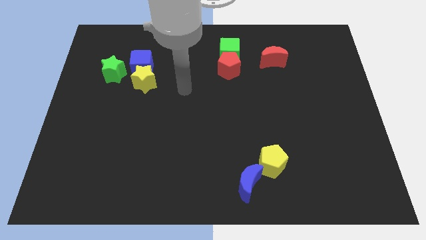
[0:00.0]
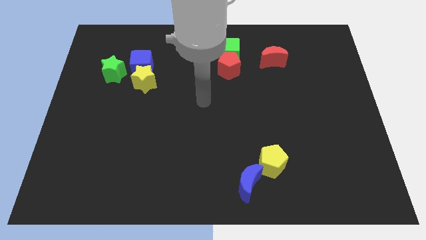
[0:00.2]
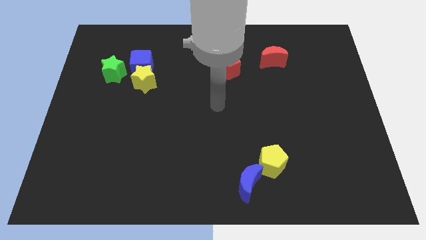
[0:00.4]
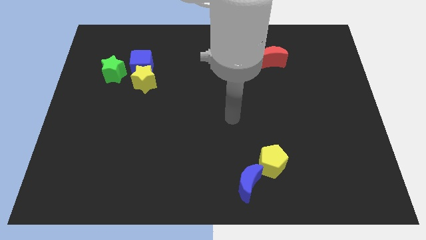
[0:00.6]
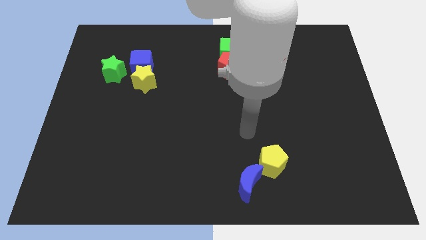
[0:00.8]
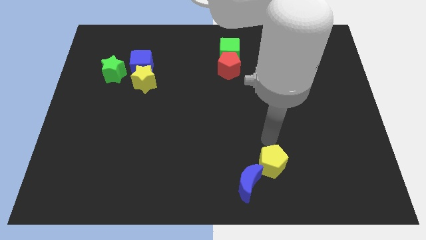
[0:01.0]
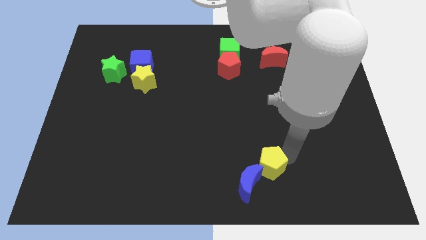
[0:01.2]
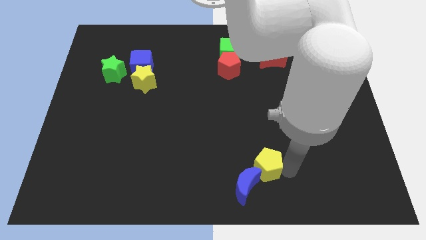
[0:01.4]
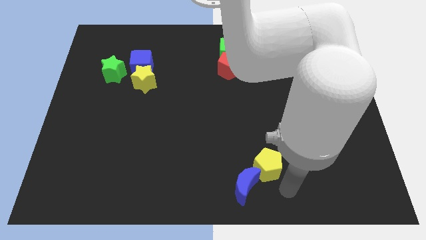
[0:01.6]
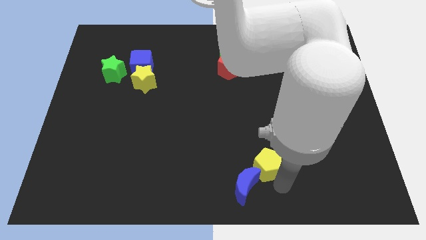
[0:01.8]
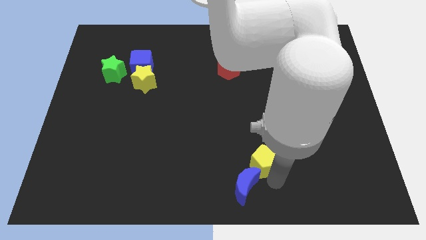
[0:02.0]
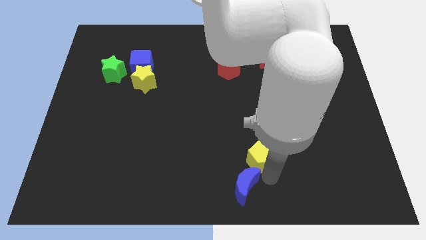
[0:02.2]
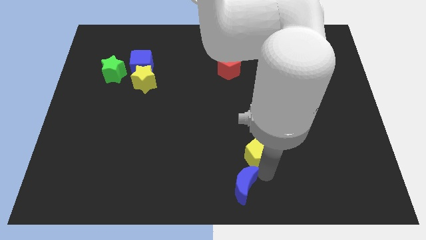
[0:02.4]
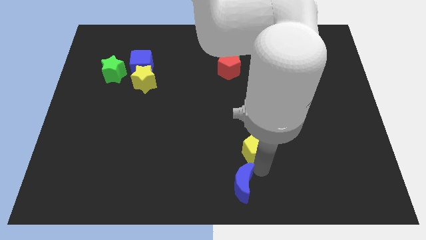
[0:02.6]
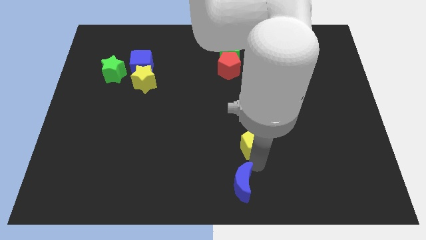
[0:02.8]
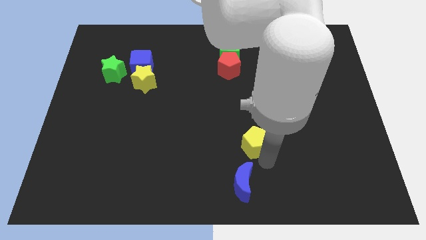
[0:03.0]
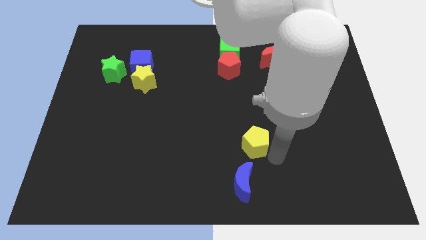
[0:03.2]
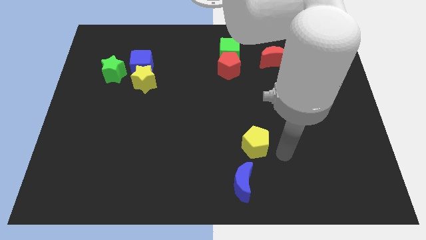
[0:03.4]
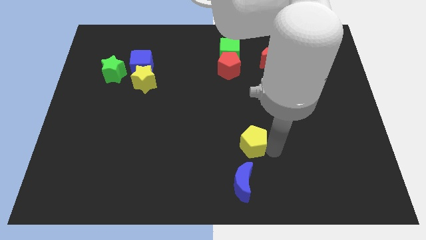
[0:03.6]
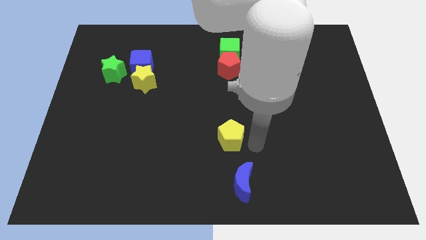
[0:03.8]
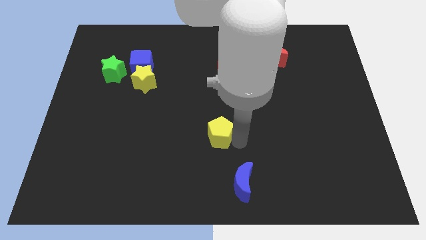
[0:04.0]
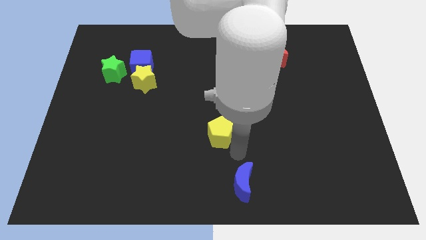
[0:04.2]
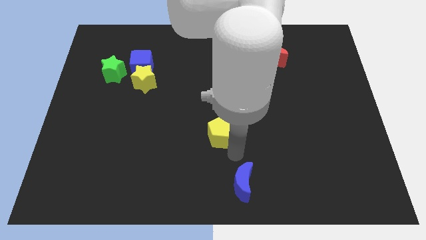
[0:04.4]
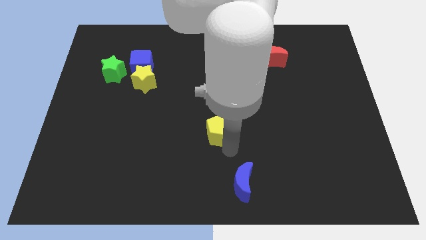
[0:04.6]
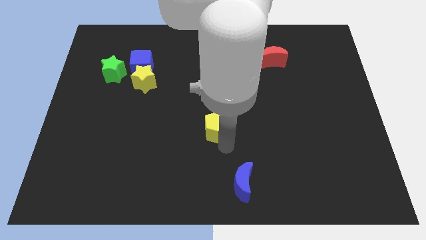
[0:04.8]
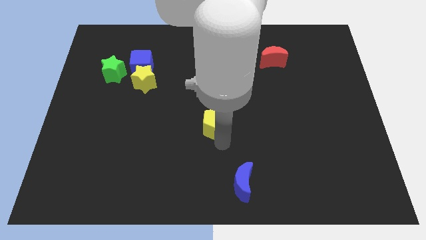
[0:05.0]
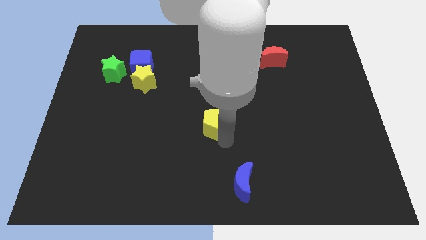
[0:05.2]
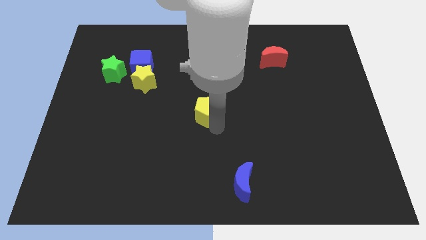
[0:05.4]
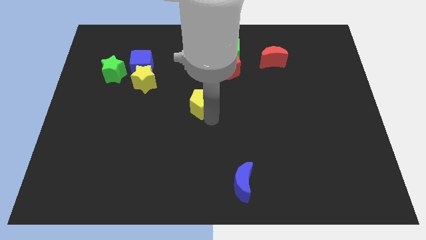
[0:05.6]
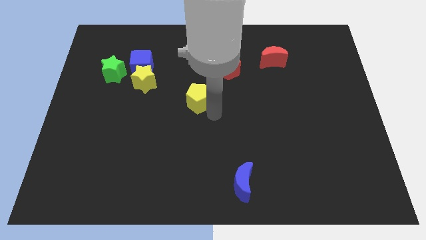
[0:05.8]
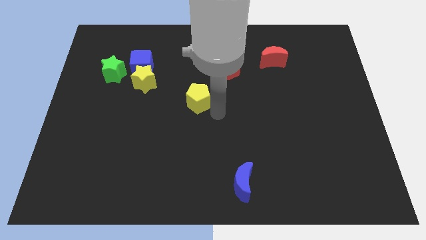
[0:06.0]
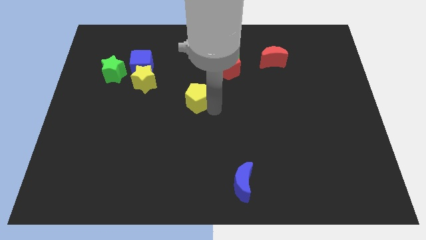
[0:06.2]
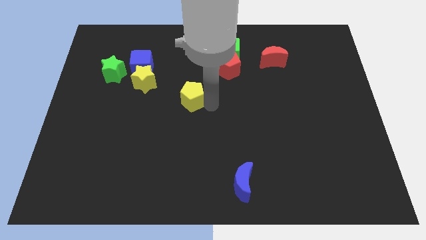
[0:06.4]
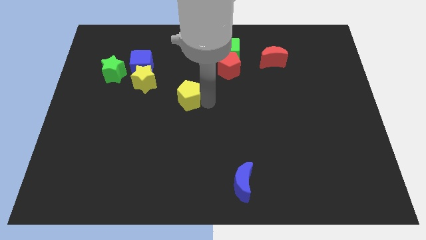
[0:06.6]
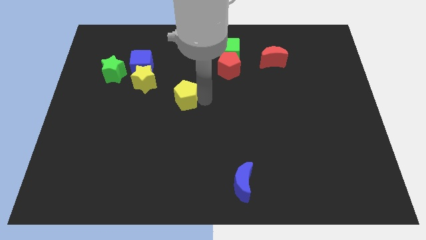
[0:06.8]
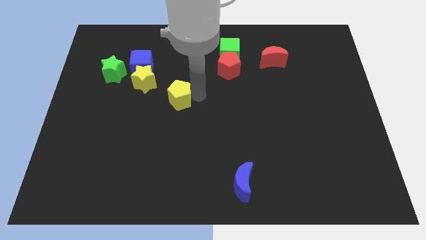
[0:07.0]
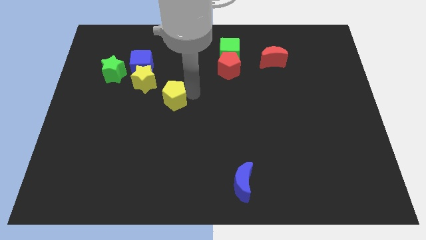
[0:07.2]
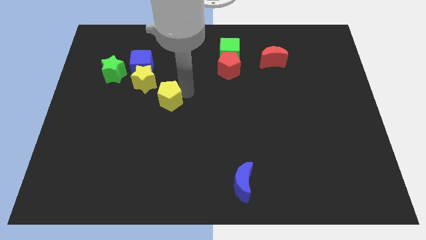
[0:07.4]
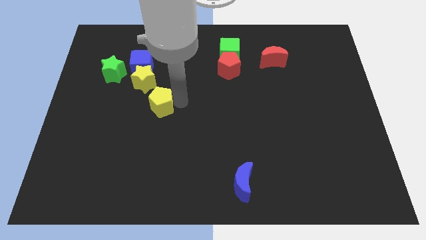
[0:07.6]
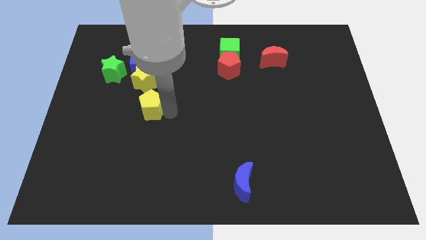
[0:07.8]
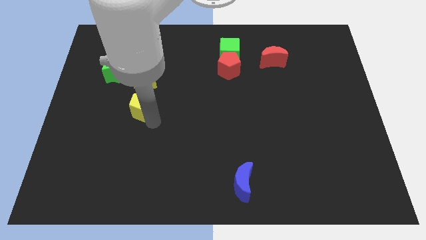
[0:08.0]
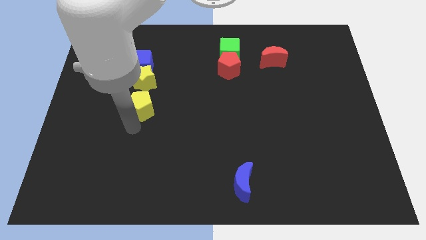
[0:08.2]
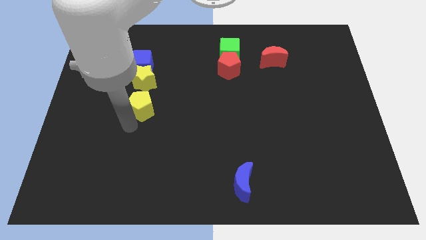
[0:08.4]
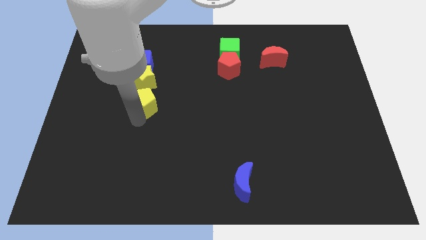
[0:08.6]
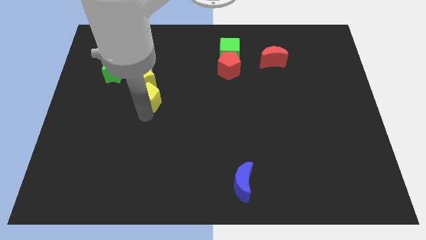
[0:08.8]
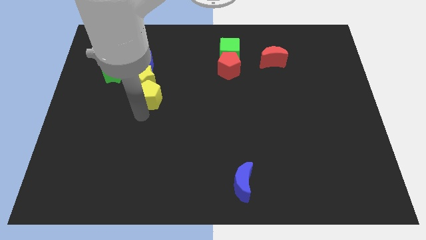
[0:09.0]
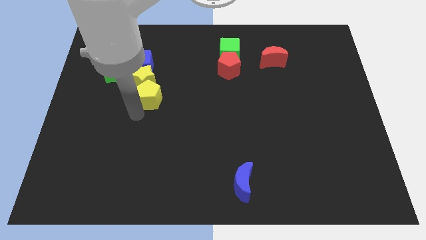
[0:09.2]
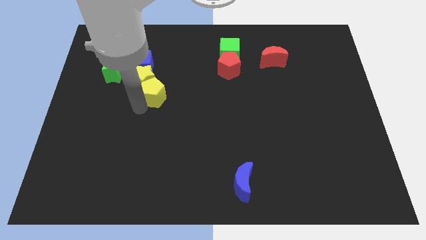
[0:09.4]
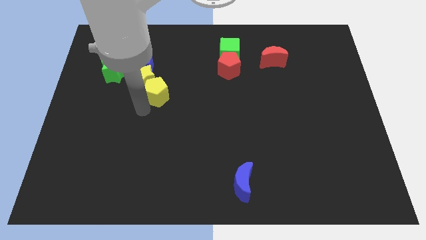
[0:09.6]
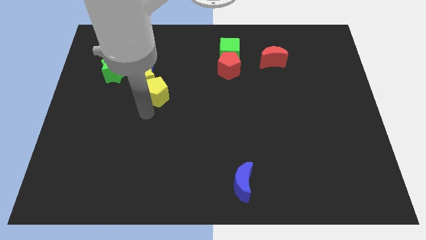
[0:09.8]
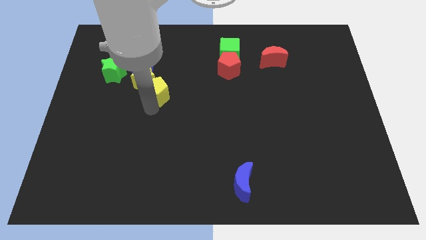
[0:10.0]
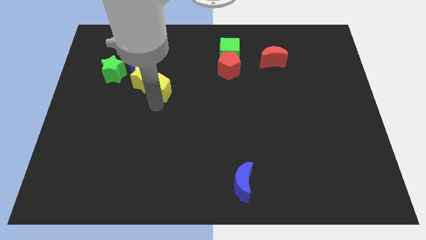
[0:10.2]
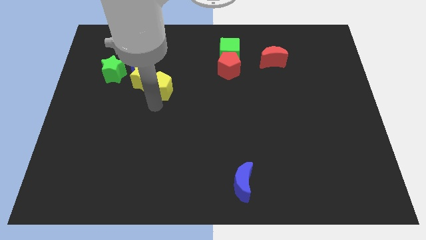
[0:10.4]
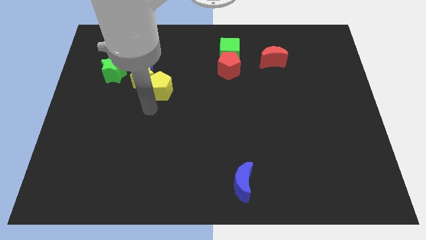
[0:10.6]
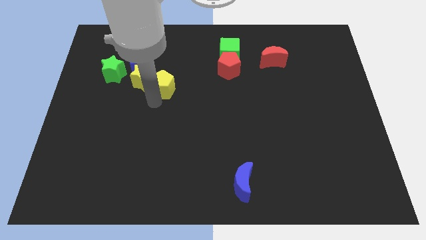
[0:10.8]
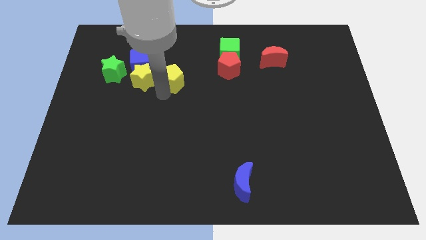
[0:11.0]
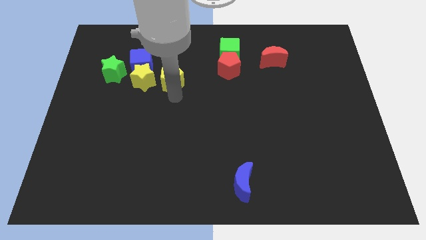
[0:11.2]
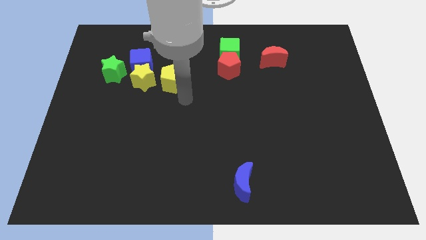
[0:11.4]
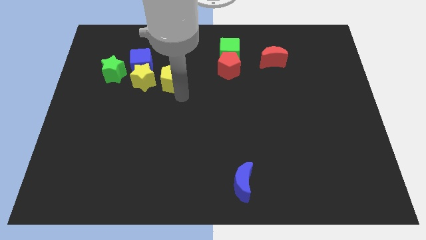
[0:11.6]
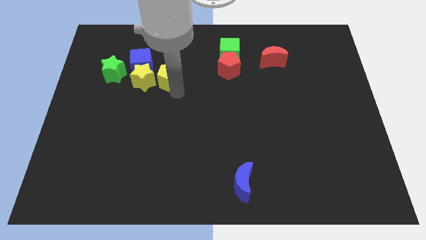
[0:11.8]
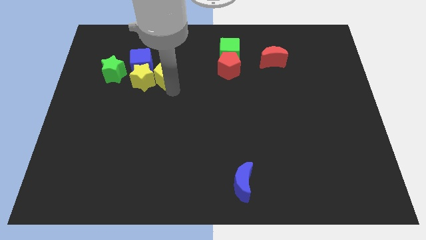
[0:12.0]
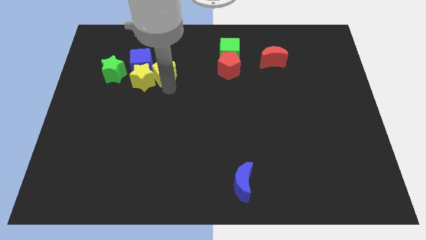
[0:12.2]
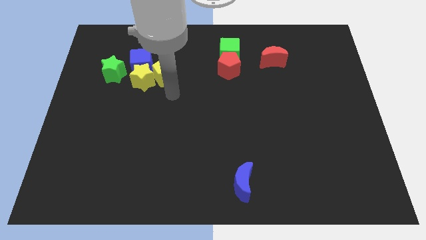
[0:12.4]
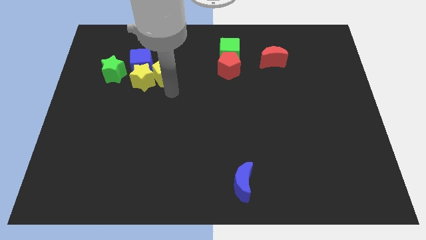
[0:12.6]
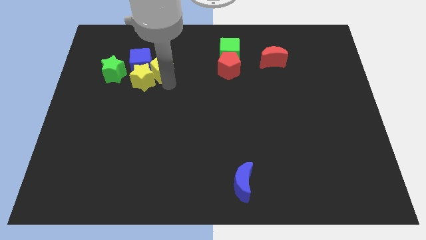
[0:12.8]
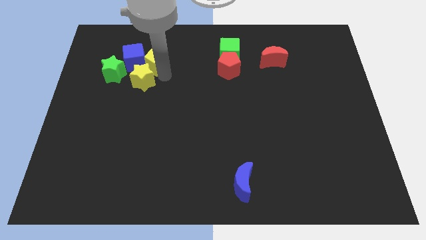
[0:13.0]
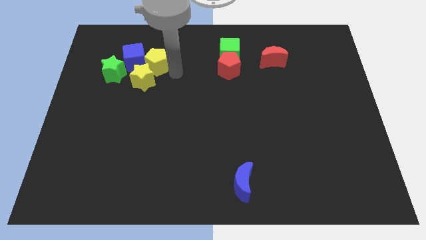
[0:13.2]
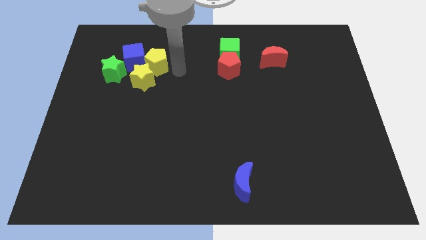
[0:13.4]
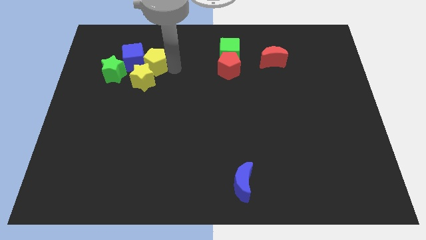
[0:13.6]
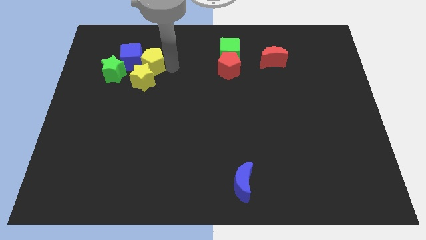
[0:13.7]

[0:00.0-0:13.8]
put the yellow pentagon to the top right of the green star
